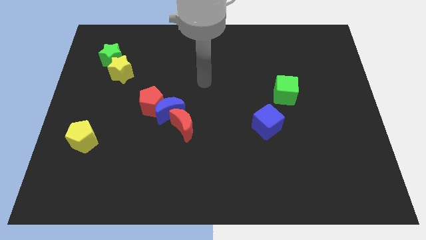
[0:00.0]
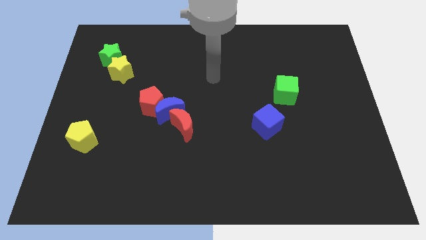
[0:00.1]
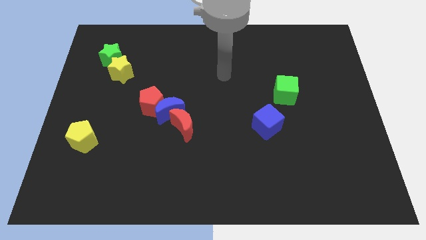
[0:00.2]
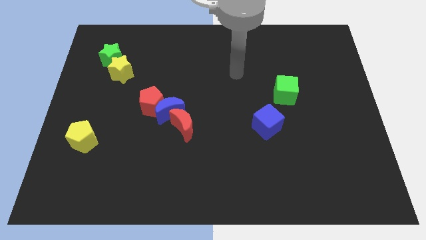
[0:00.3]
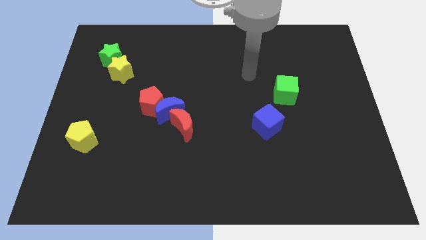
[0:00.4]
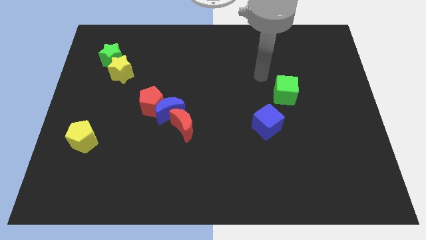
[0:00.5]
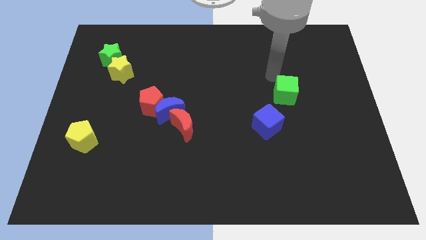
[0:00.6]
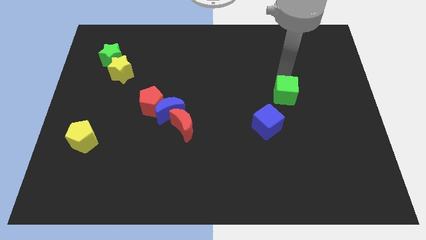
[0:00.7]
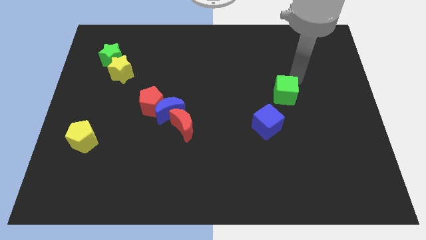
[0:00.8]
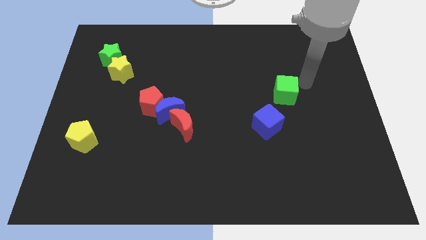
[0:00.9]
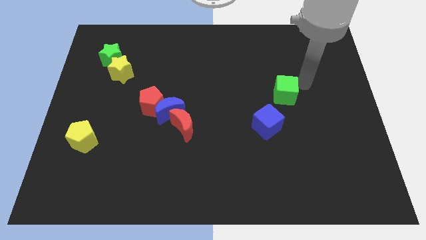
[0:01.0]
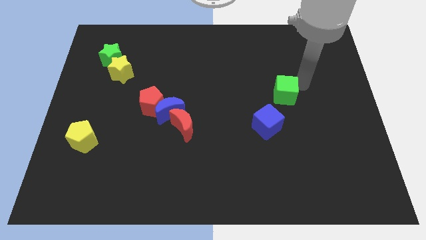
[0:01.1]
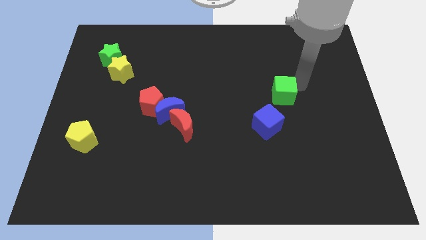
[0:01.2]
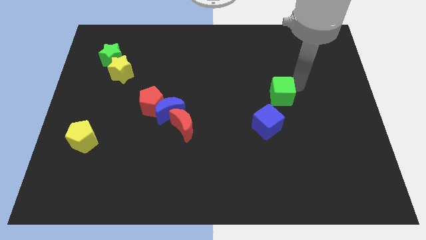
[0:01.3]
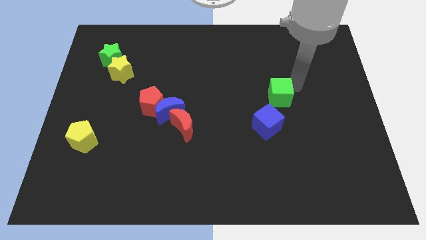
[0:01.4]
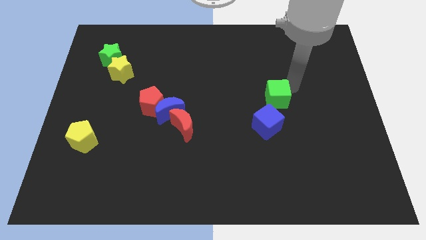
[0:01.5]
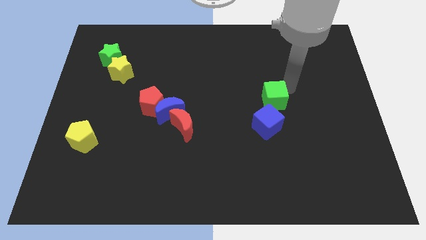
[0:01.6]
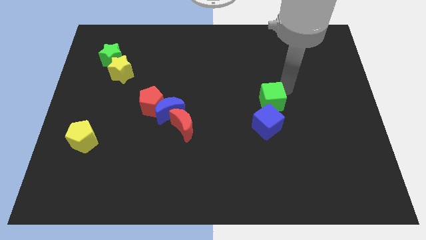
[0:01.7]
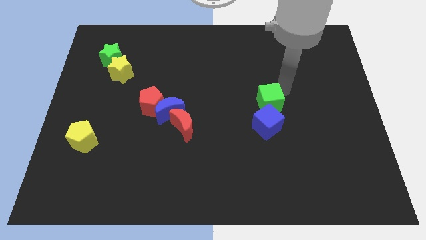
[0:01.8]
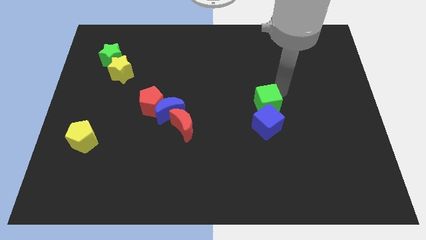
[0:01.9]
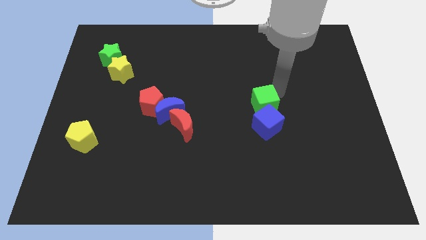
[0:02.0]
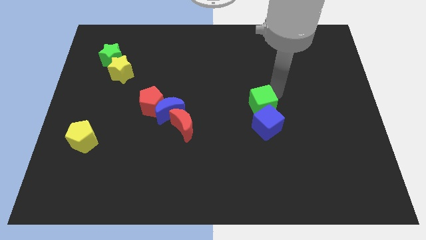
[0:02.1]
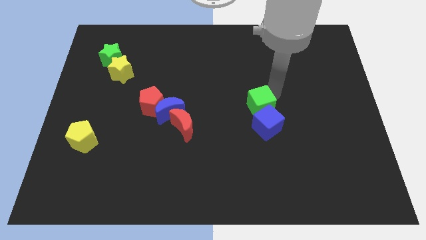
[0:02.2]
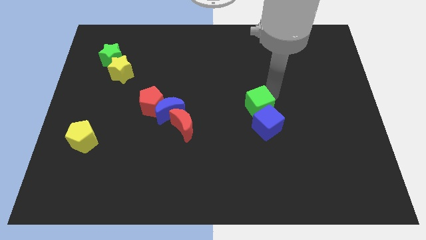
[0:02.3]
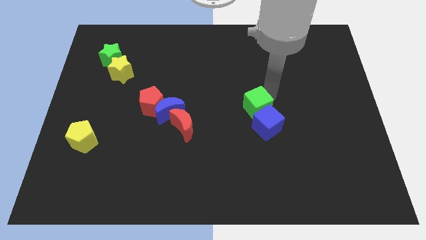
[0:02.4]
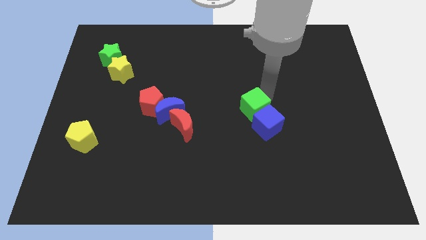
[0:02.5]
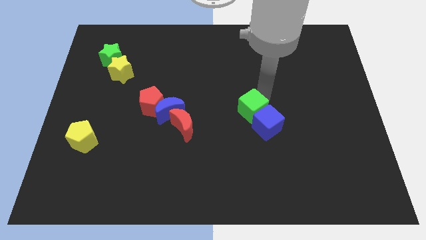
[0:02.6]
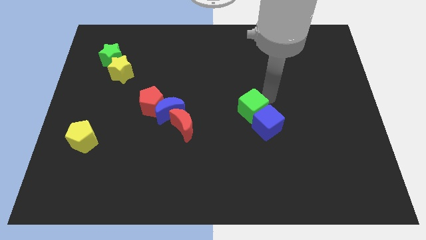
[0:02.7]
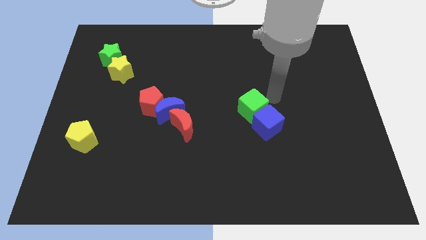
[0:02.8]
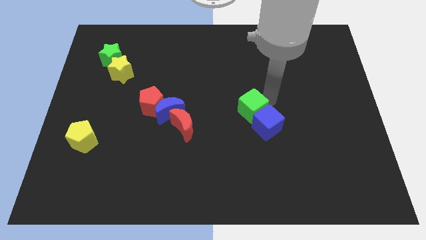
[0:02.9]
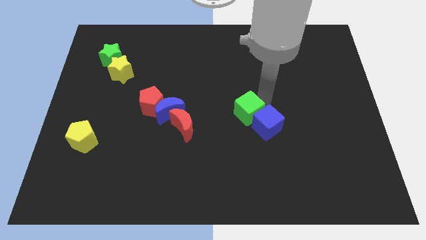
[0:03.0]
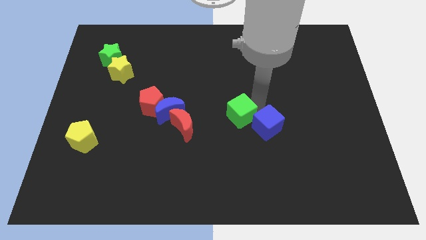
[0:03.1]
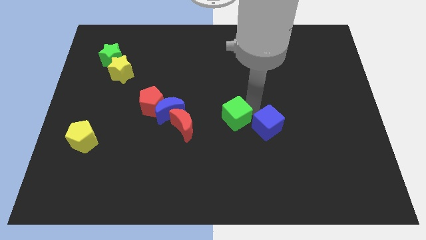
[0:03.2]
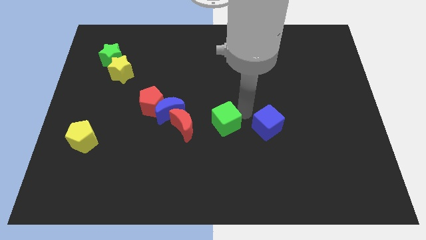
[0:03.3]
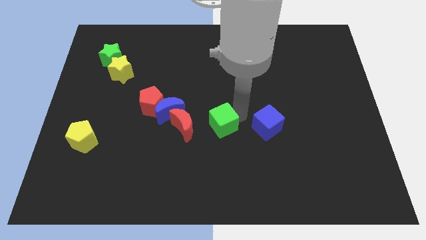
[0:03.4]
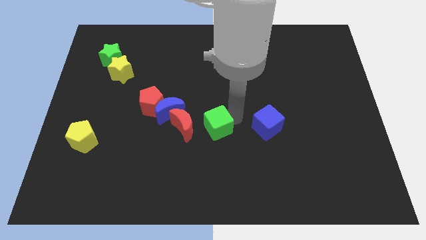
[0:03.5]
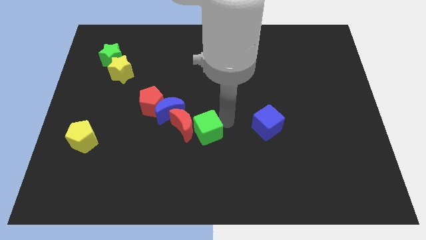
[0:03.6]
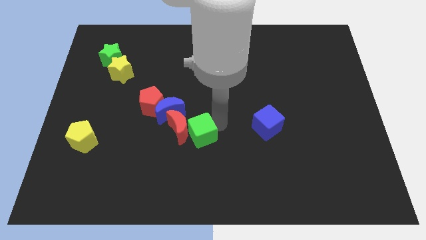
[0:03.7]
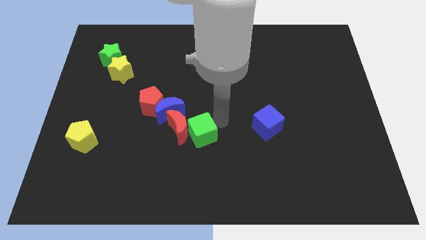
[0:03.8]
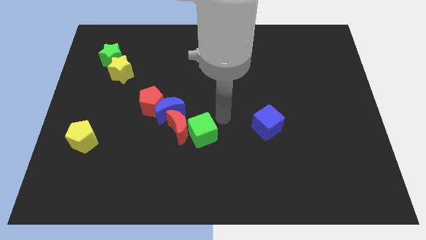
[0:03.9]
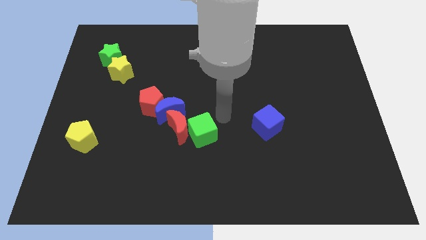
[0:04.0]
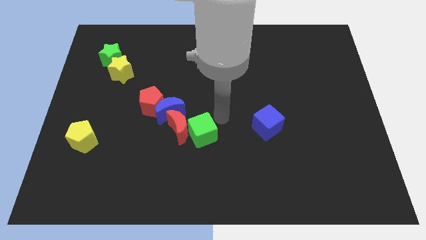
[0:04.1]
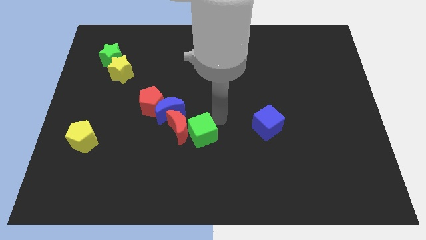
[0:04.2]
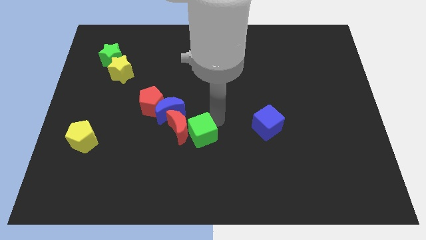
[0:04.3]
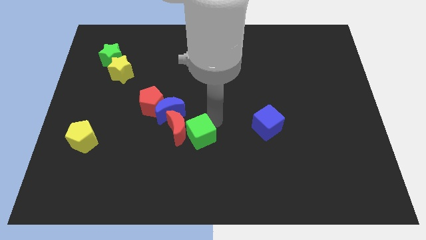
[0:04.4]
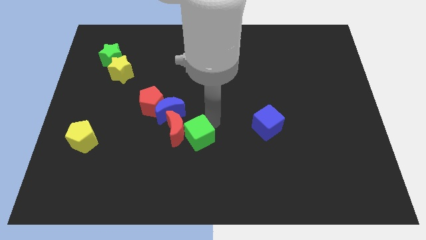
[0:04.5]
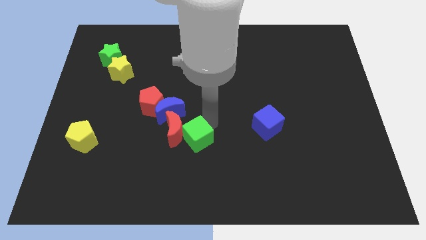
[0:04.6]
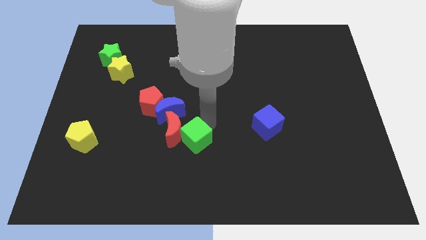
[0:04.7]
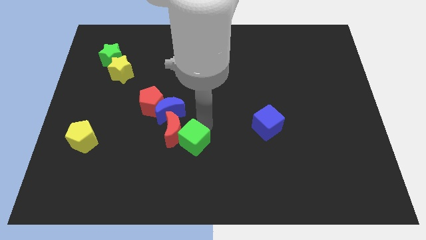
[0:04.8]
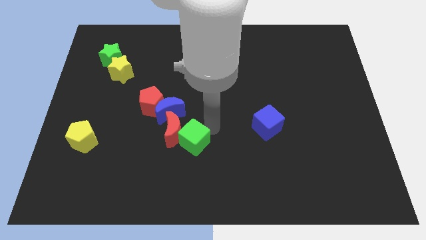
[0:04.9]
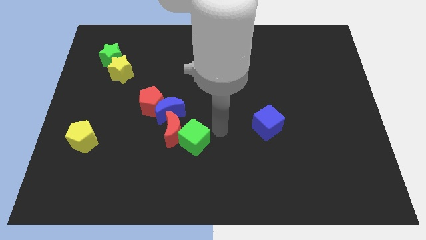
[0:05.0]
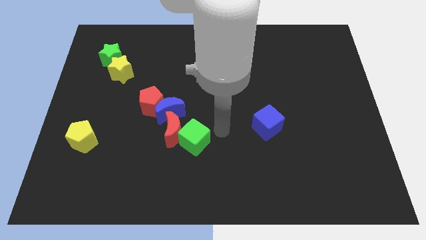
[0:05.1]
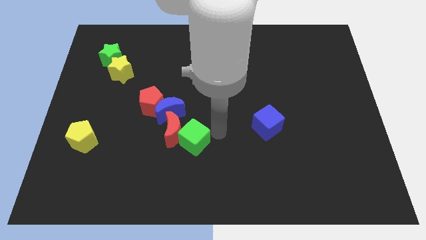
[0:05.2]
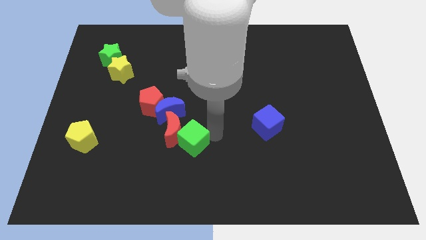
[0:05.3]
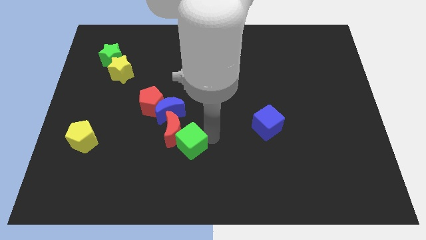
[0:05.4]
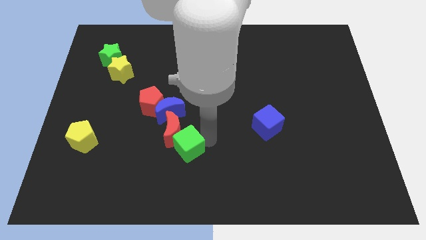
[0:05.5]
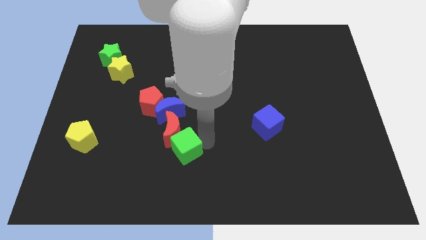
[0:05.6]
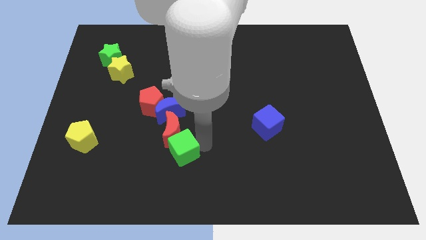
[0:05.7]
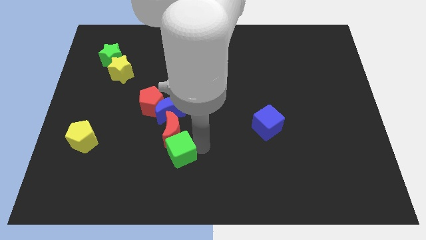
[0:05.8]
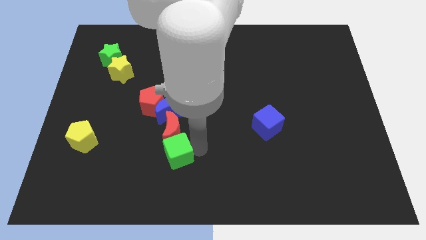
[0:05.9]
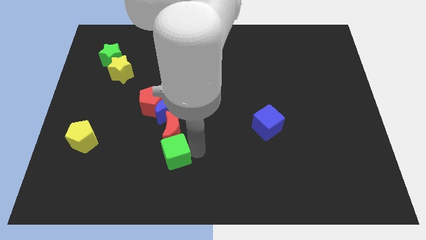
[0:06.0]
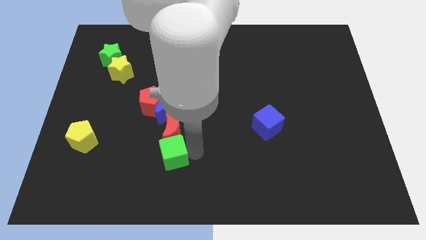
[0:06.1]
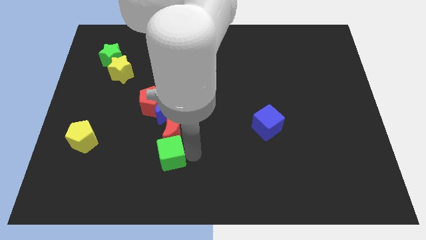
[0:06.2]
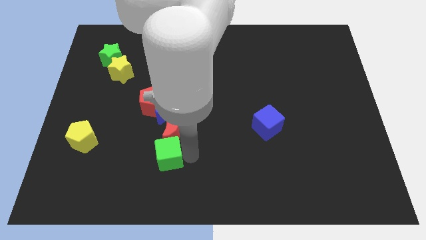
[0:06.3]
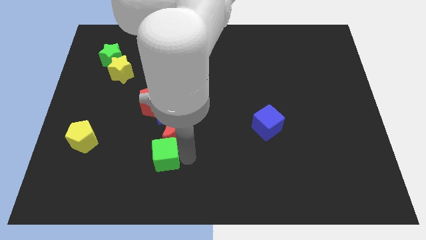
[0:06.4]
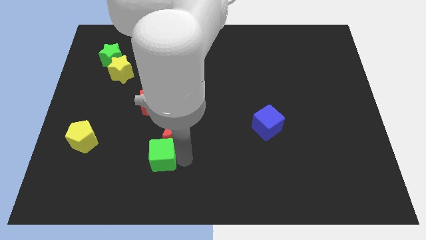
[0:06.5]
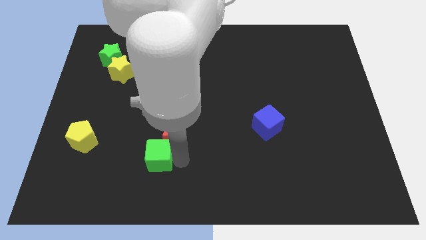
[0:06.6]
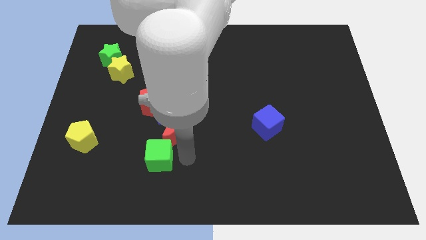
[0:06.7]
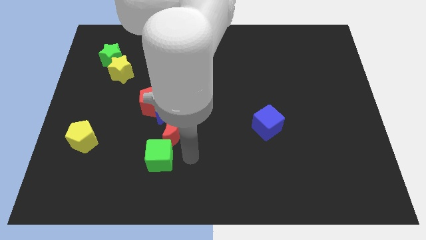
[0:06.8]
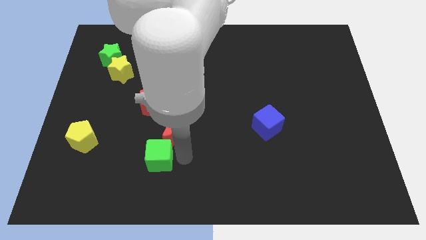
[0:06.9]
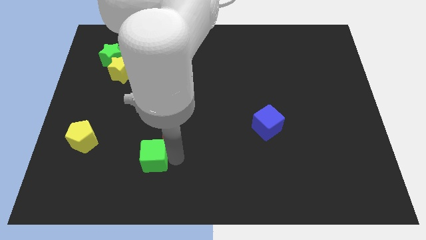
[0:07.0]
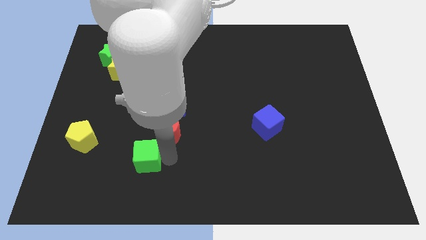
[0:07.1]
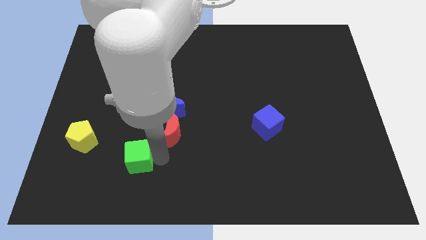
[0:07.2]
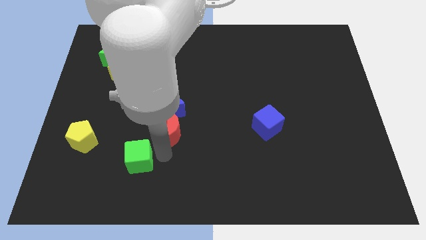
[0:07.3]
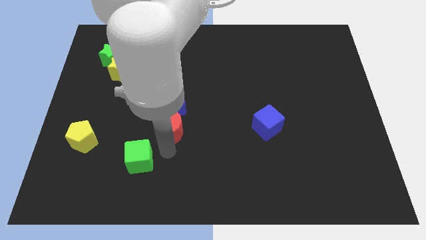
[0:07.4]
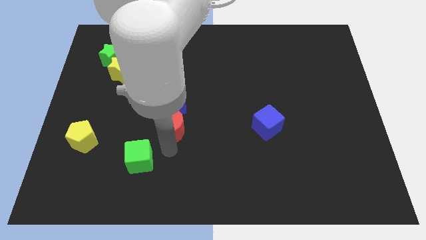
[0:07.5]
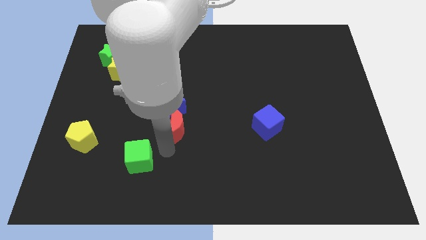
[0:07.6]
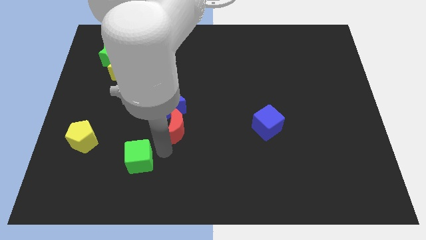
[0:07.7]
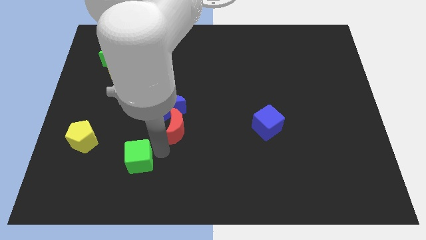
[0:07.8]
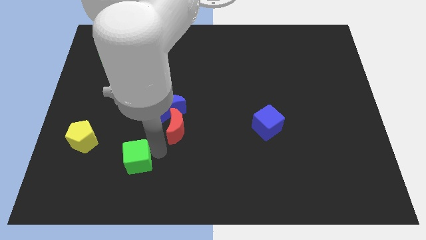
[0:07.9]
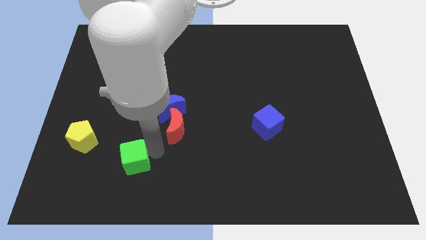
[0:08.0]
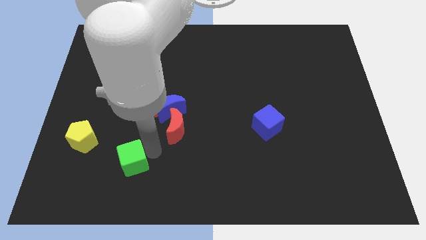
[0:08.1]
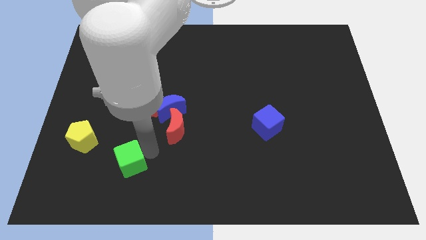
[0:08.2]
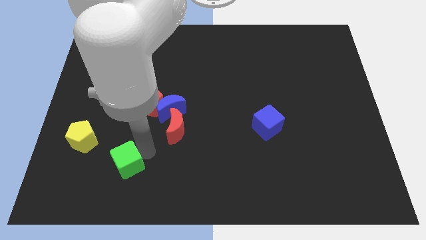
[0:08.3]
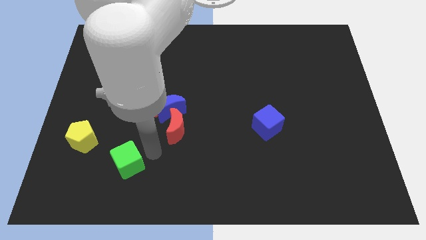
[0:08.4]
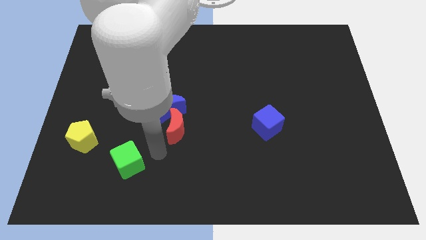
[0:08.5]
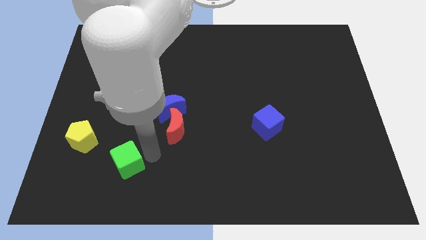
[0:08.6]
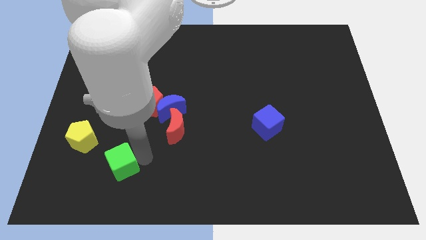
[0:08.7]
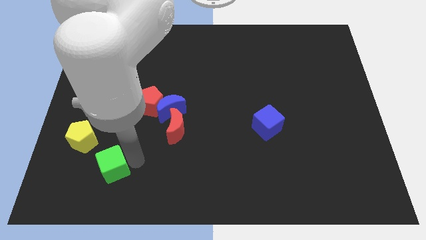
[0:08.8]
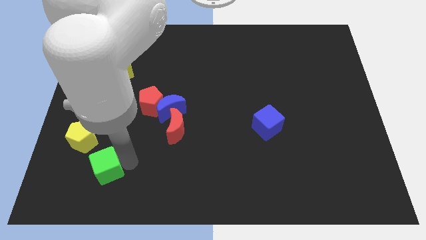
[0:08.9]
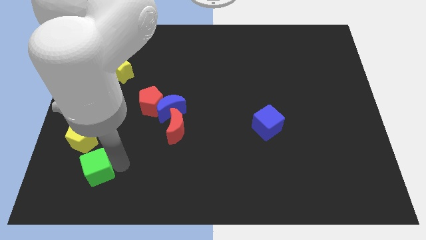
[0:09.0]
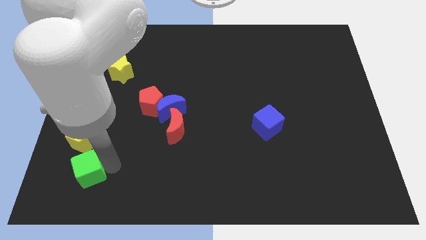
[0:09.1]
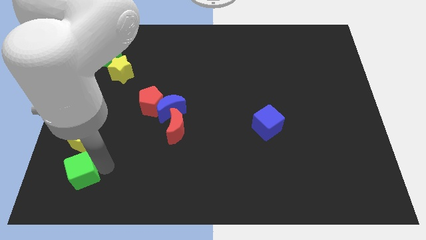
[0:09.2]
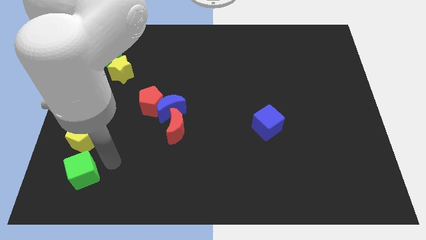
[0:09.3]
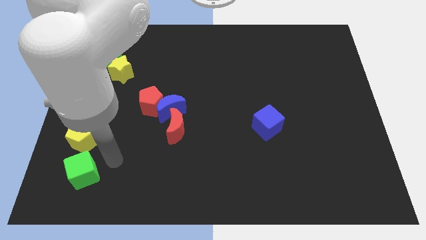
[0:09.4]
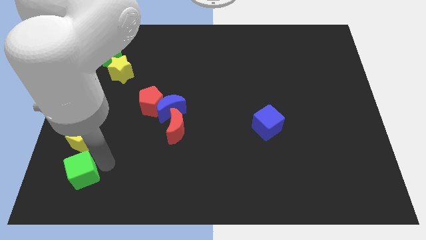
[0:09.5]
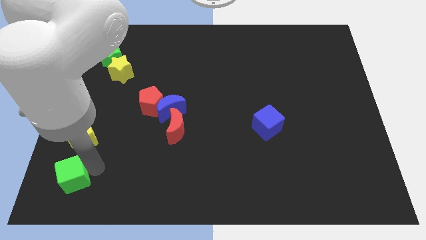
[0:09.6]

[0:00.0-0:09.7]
move the green cube to the bottom left corner
